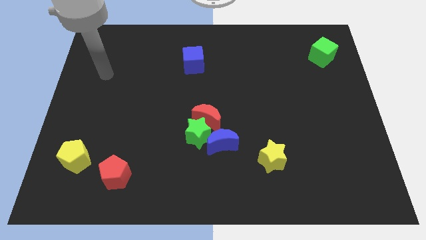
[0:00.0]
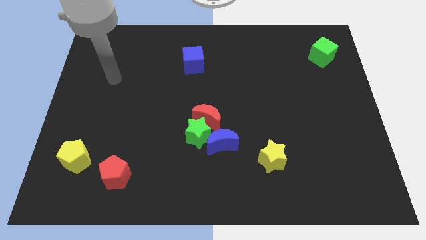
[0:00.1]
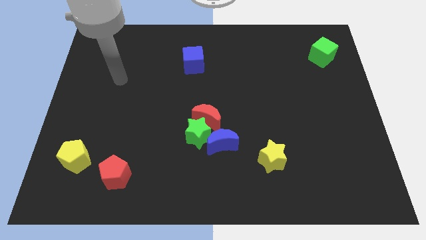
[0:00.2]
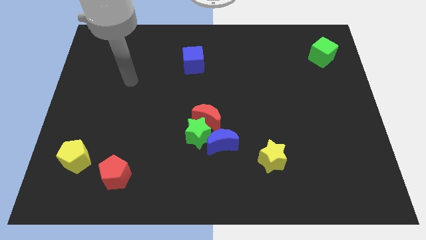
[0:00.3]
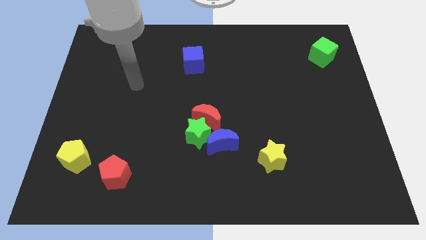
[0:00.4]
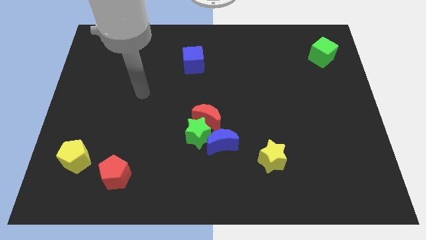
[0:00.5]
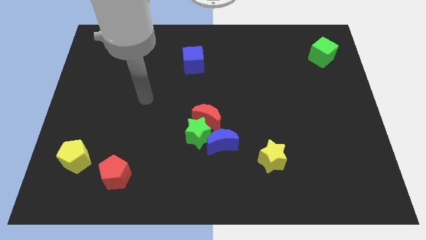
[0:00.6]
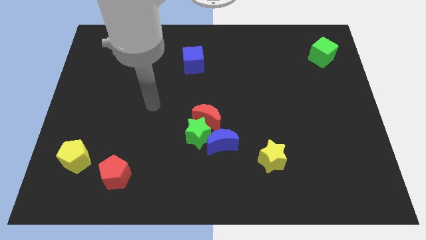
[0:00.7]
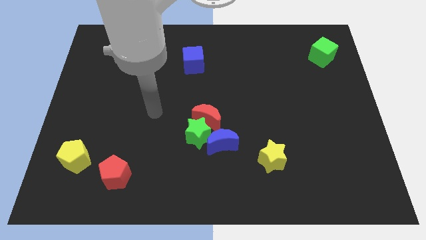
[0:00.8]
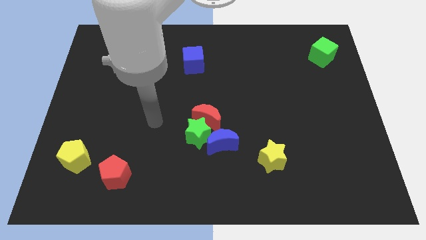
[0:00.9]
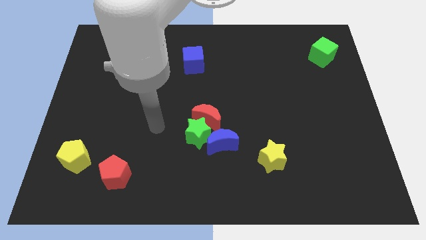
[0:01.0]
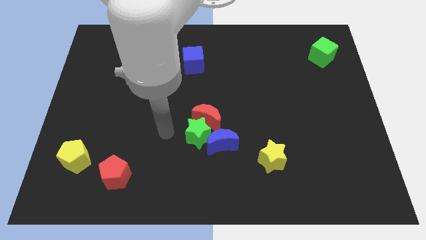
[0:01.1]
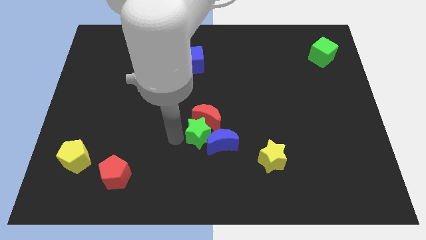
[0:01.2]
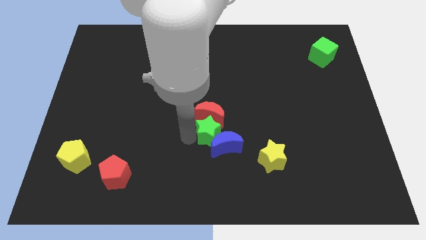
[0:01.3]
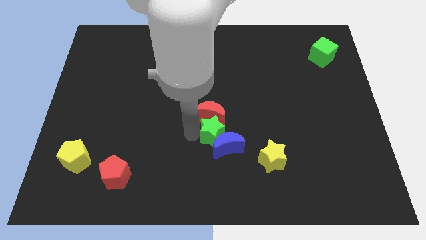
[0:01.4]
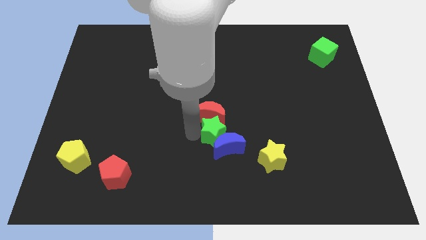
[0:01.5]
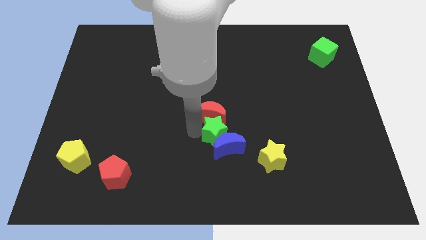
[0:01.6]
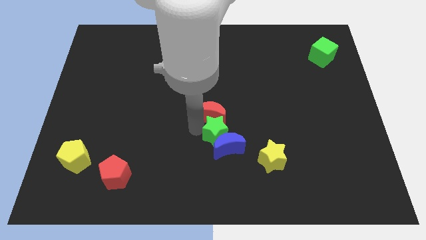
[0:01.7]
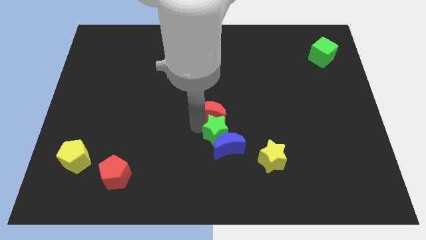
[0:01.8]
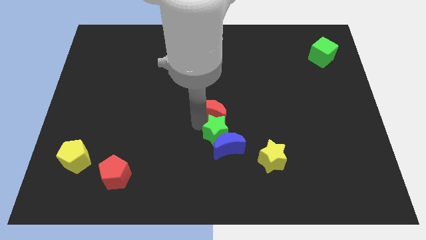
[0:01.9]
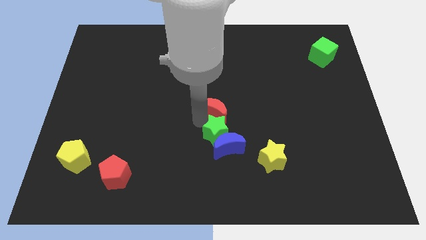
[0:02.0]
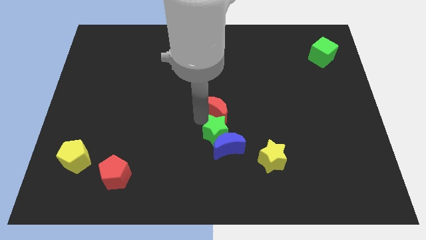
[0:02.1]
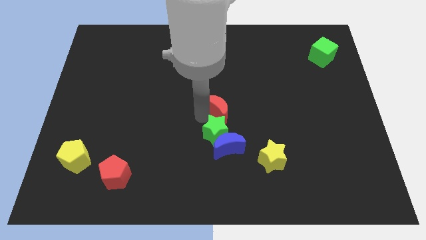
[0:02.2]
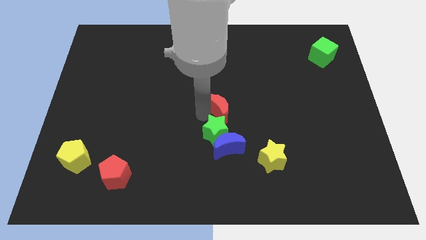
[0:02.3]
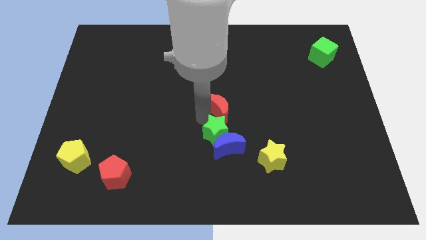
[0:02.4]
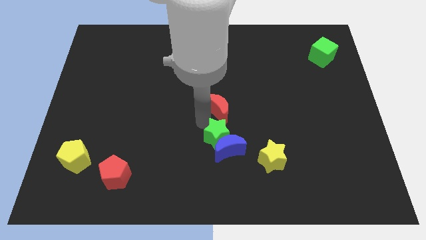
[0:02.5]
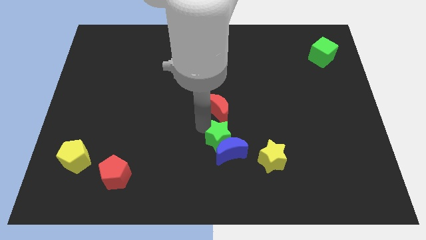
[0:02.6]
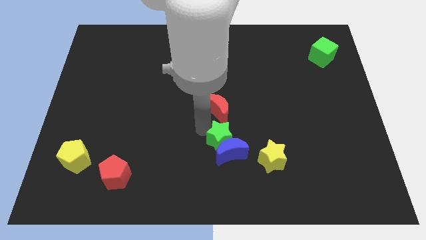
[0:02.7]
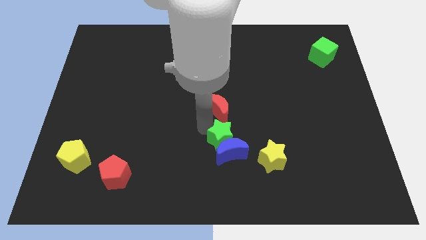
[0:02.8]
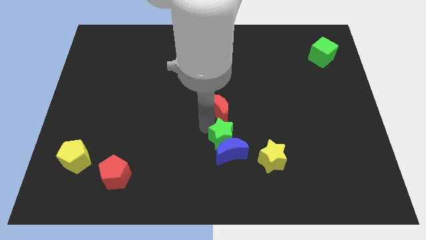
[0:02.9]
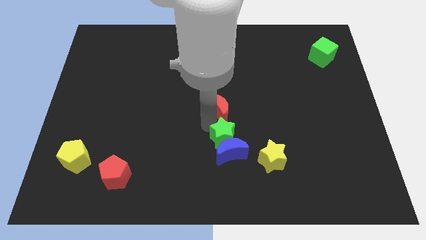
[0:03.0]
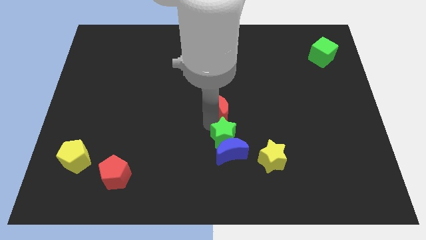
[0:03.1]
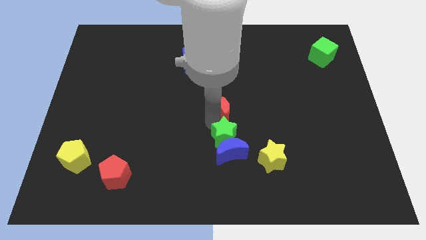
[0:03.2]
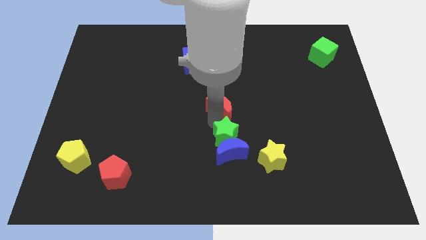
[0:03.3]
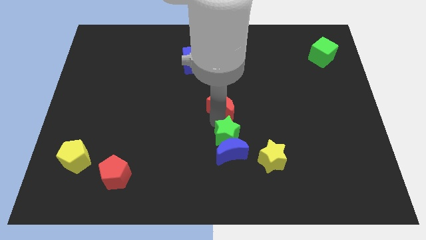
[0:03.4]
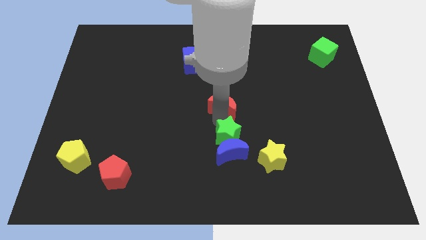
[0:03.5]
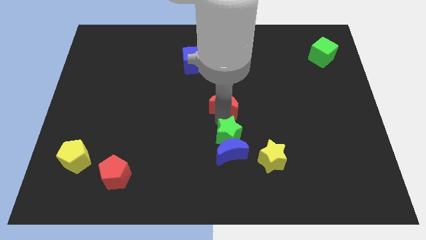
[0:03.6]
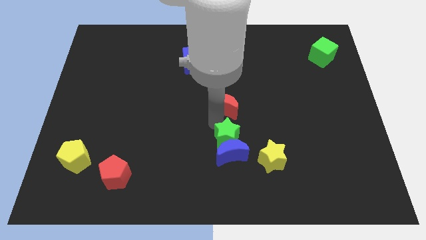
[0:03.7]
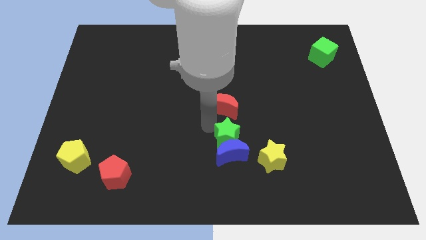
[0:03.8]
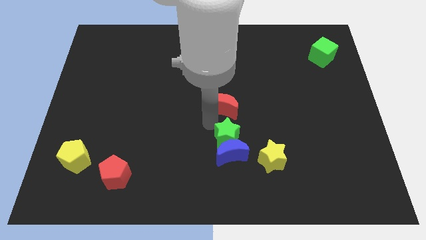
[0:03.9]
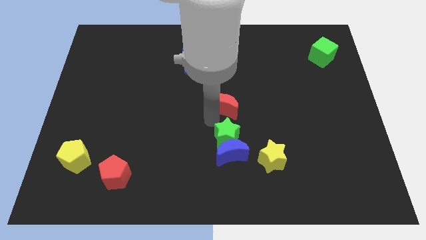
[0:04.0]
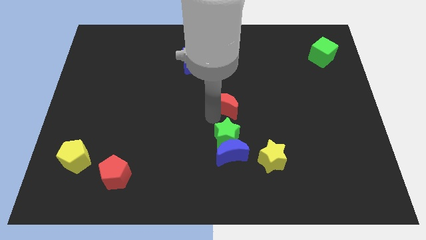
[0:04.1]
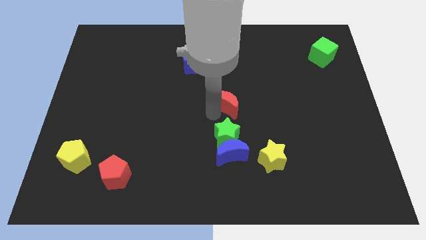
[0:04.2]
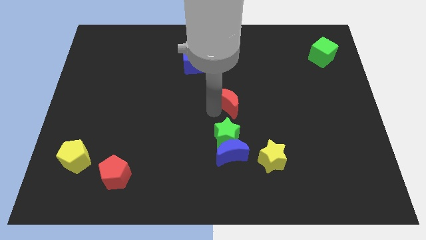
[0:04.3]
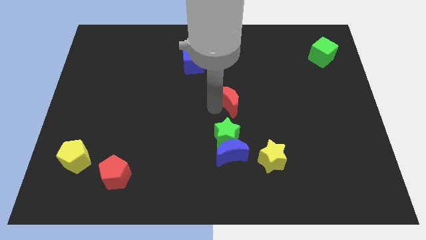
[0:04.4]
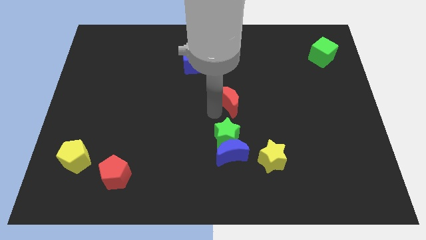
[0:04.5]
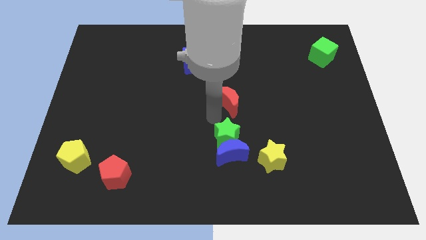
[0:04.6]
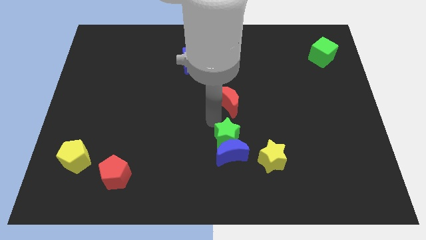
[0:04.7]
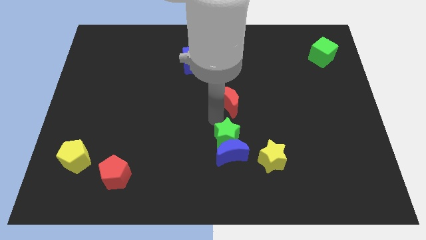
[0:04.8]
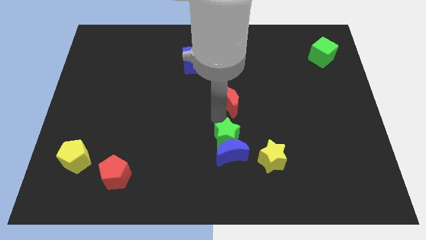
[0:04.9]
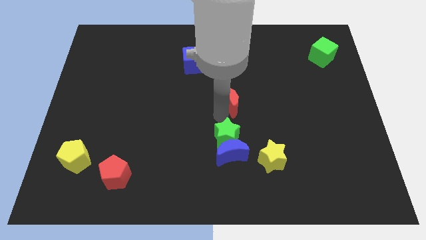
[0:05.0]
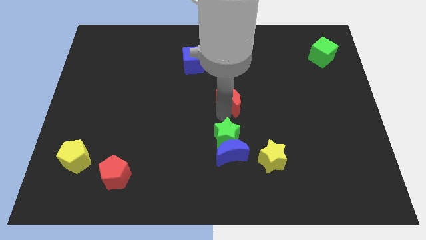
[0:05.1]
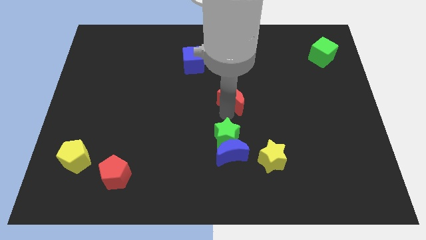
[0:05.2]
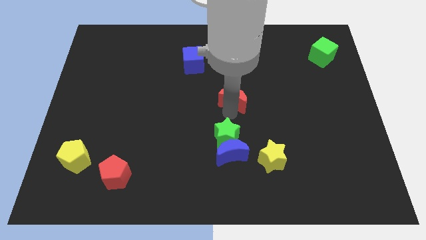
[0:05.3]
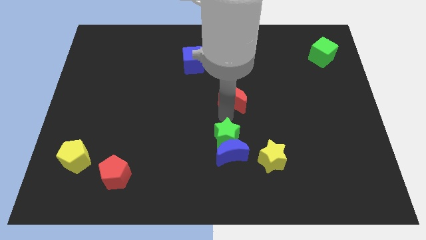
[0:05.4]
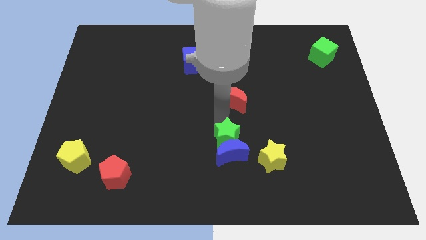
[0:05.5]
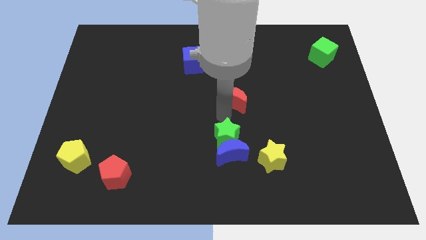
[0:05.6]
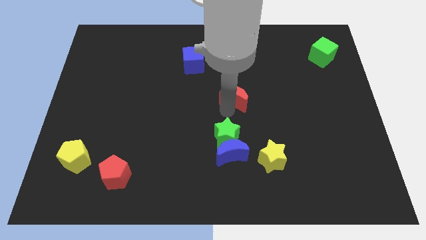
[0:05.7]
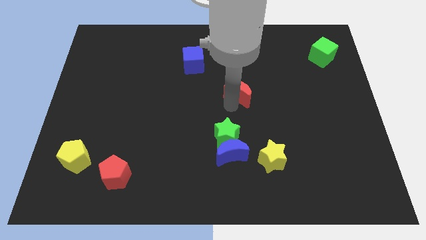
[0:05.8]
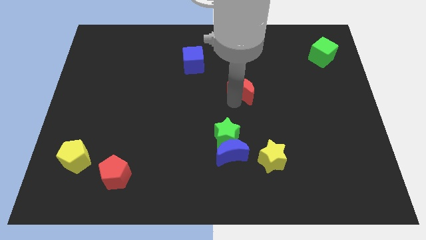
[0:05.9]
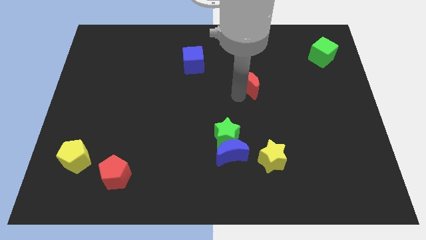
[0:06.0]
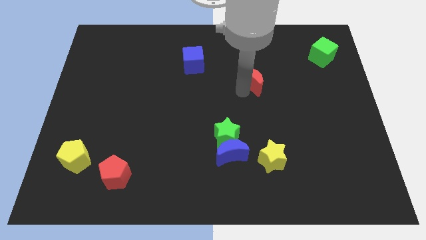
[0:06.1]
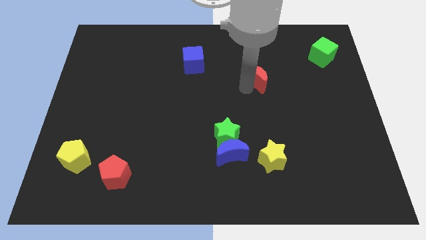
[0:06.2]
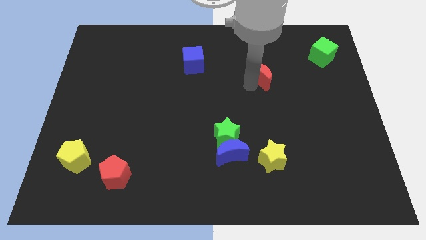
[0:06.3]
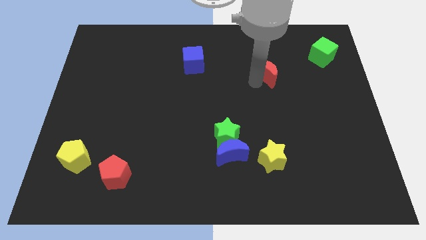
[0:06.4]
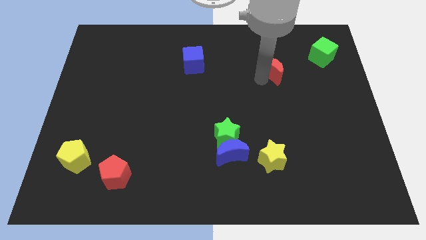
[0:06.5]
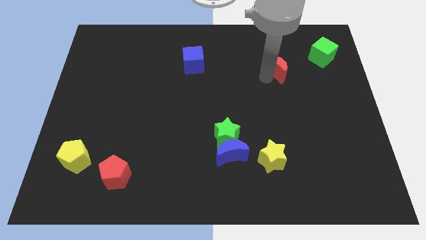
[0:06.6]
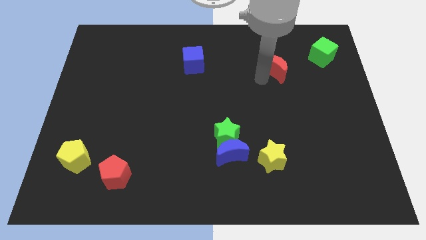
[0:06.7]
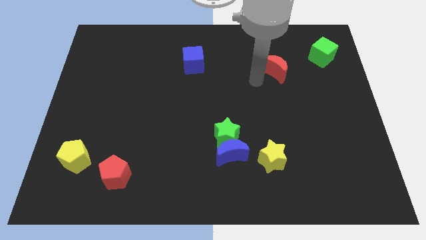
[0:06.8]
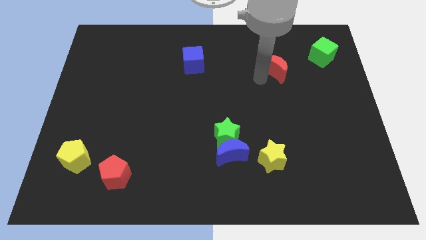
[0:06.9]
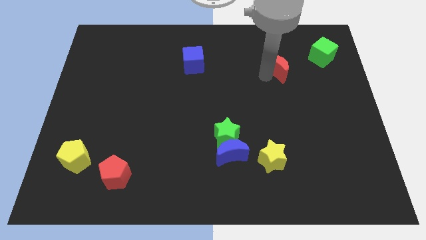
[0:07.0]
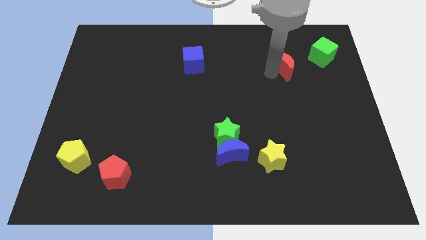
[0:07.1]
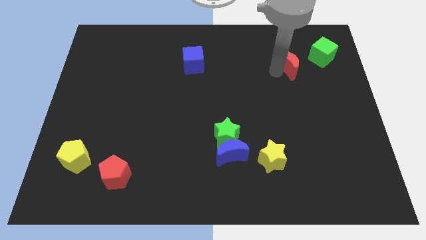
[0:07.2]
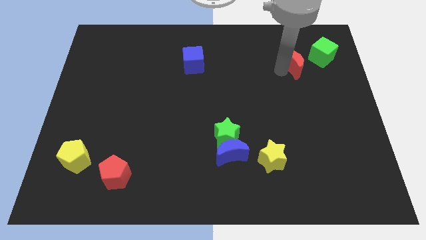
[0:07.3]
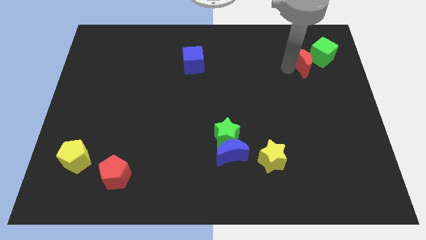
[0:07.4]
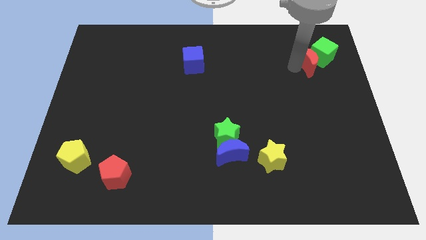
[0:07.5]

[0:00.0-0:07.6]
push the red moon towards the green cube
